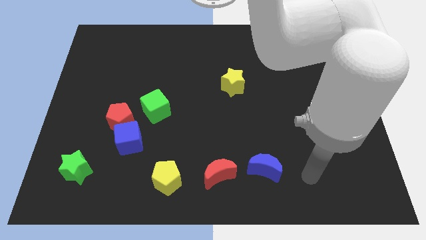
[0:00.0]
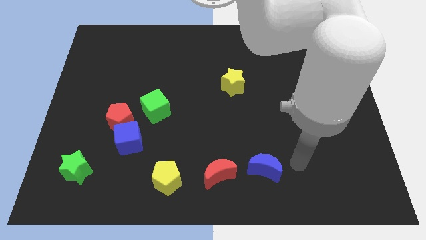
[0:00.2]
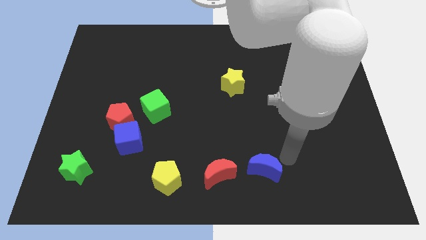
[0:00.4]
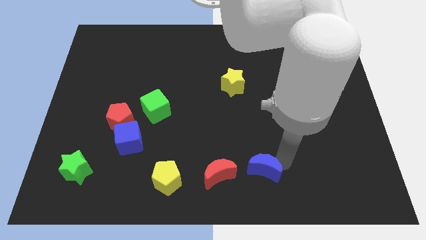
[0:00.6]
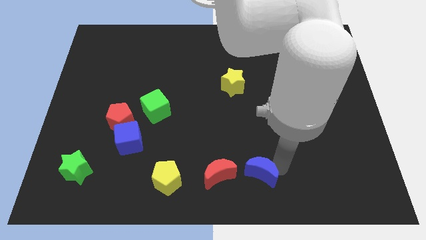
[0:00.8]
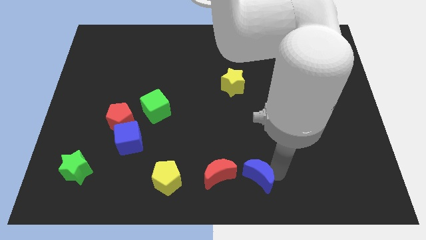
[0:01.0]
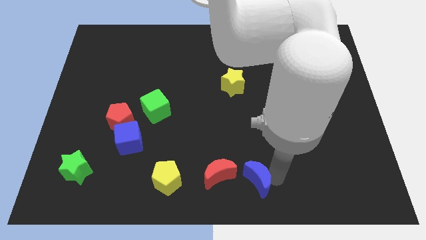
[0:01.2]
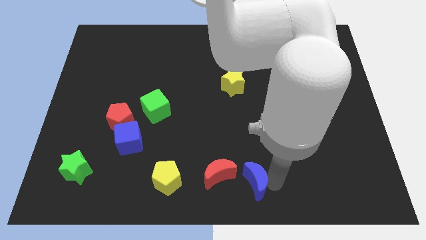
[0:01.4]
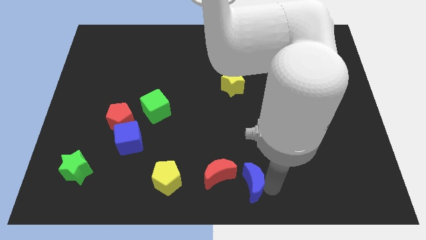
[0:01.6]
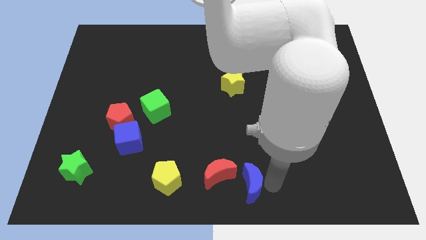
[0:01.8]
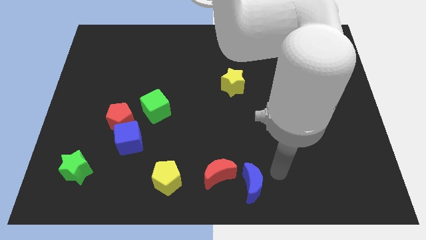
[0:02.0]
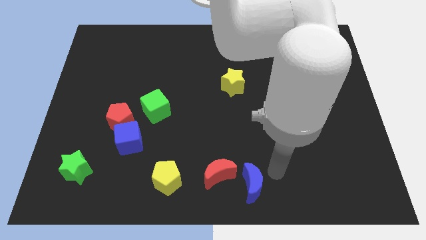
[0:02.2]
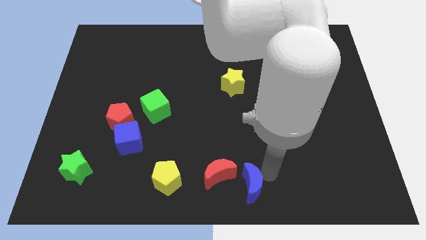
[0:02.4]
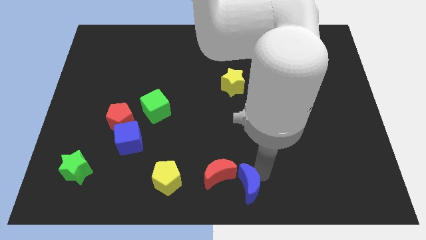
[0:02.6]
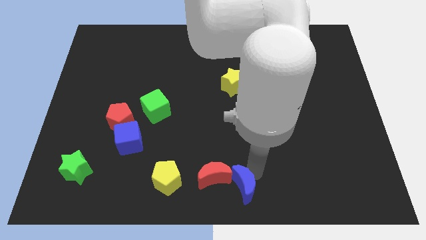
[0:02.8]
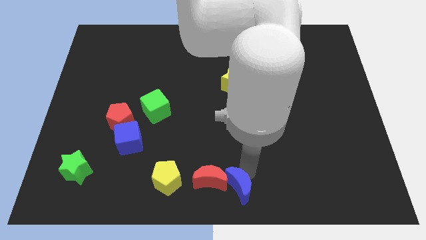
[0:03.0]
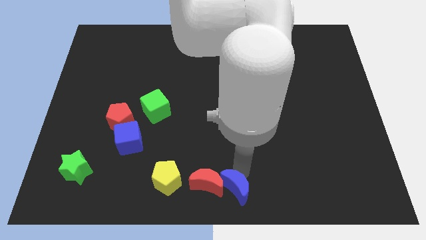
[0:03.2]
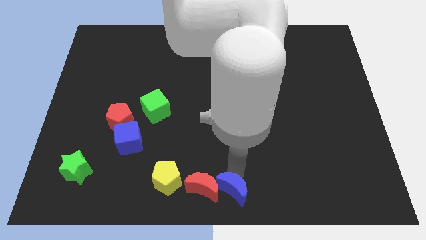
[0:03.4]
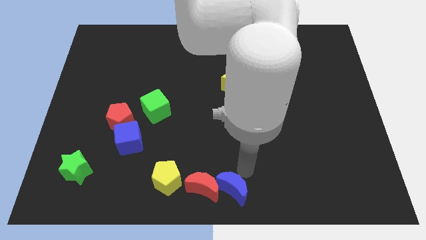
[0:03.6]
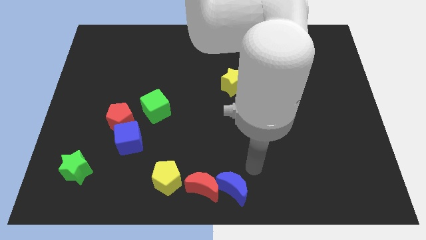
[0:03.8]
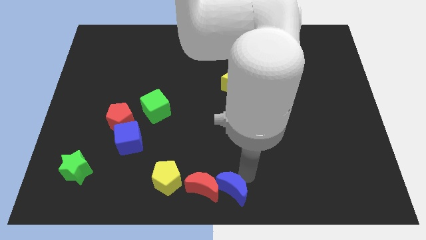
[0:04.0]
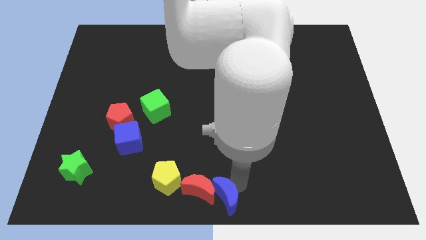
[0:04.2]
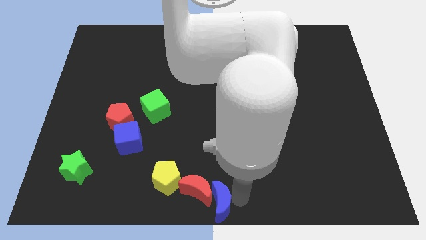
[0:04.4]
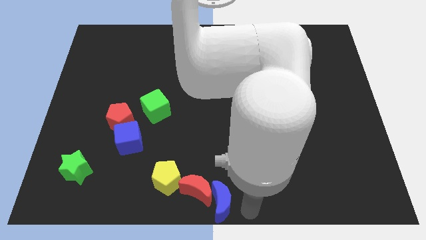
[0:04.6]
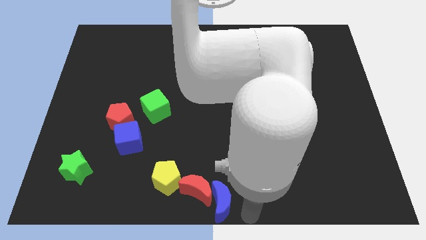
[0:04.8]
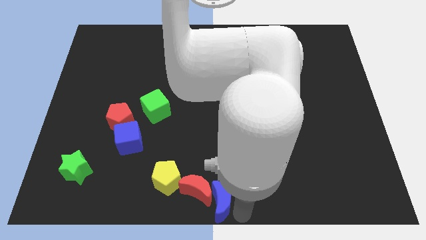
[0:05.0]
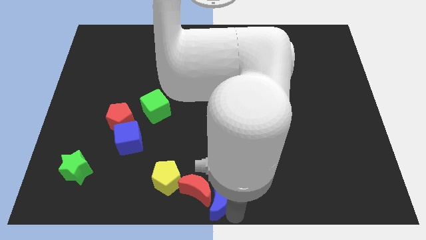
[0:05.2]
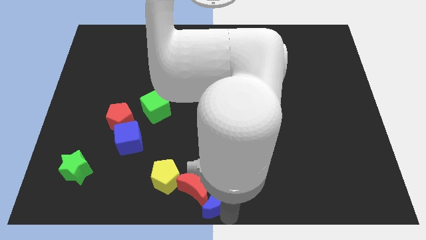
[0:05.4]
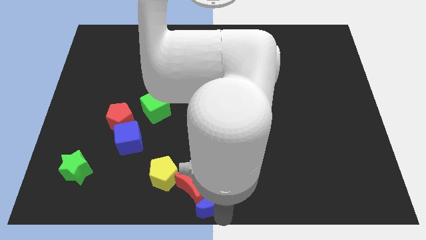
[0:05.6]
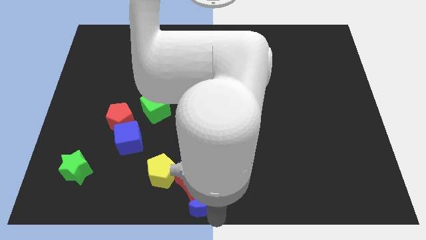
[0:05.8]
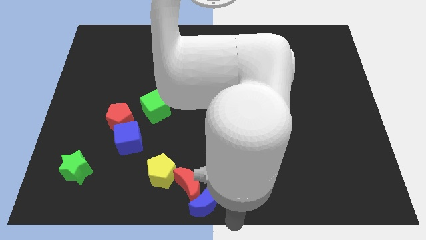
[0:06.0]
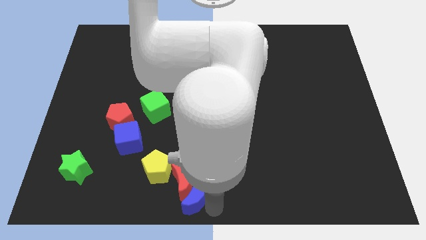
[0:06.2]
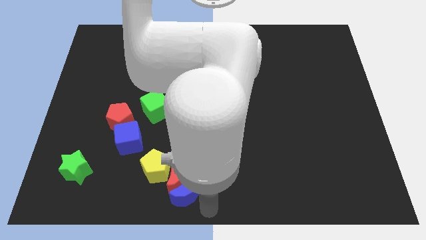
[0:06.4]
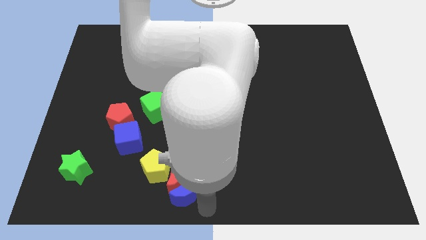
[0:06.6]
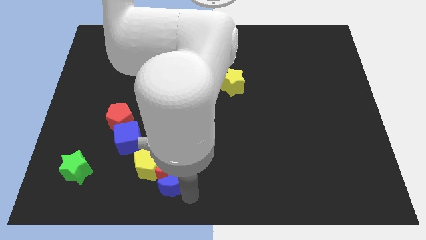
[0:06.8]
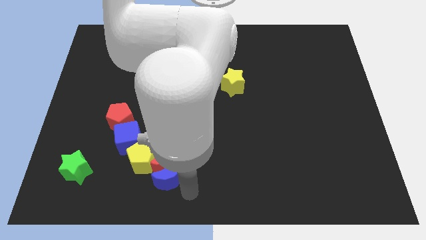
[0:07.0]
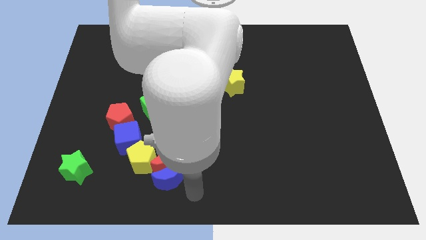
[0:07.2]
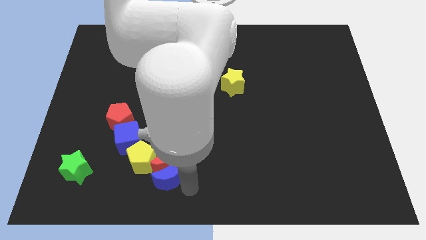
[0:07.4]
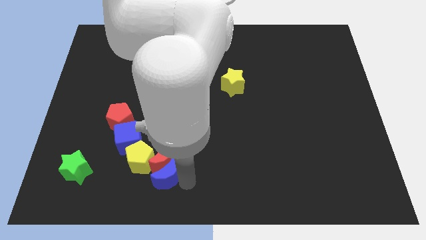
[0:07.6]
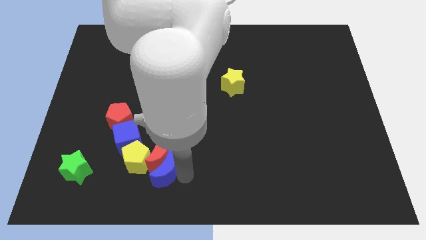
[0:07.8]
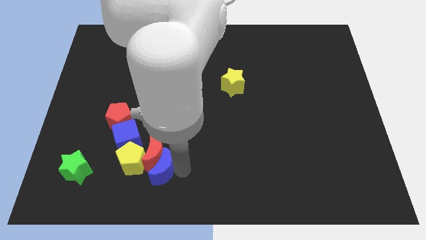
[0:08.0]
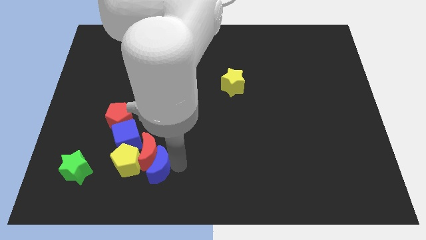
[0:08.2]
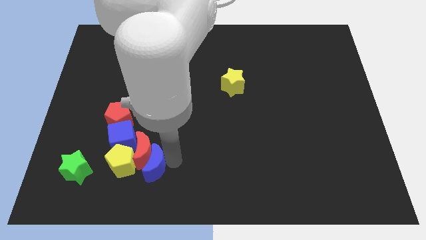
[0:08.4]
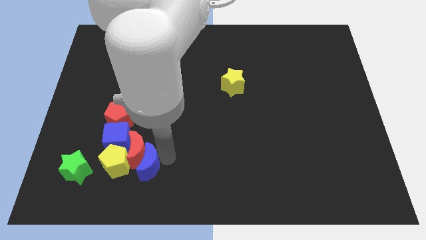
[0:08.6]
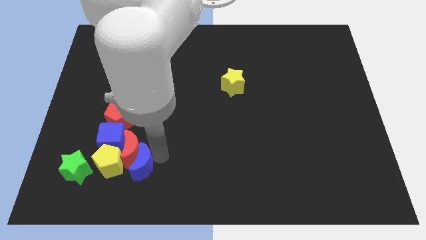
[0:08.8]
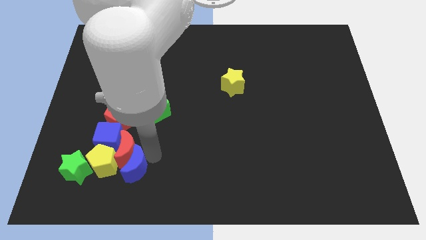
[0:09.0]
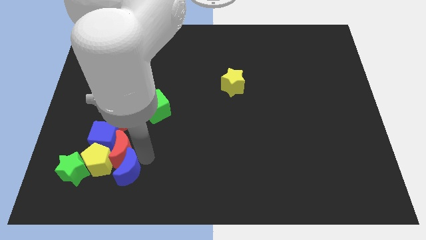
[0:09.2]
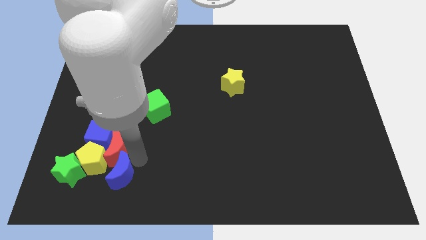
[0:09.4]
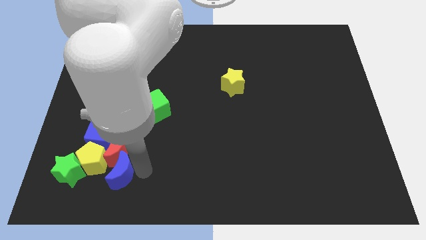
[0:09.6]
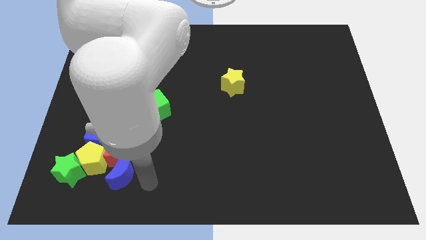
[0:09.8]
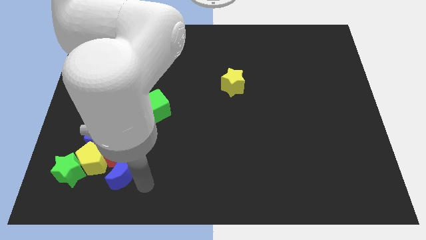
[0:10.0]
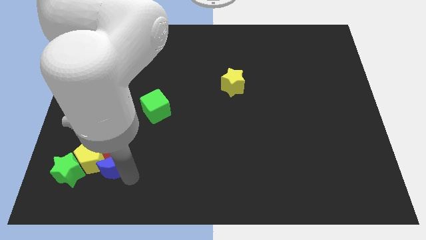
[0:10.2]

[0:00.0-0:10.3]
move the blue moon close to the yellow pentagon

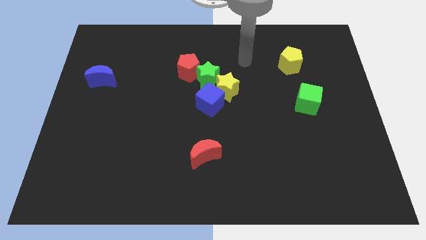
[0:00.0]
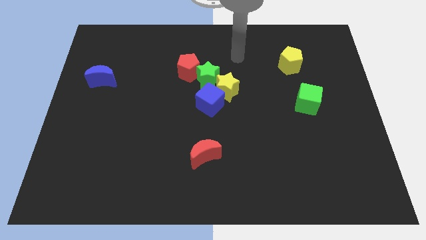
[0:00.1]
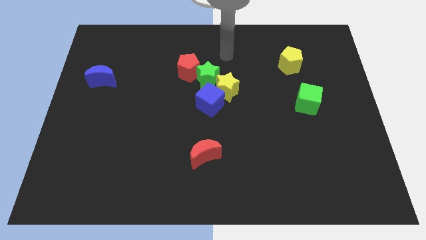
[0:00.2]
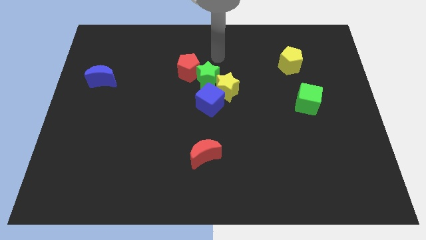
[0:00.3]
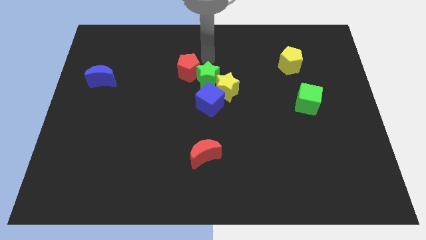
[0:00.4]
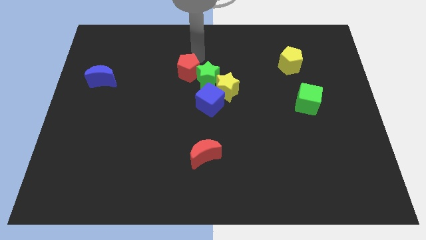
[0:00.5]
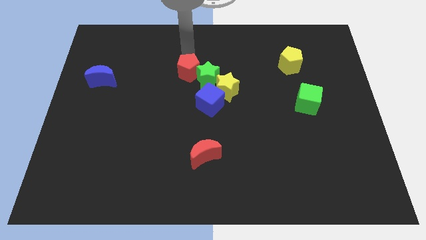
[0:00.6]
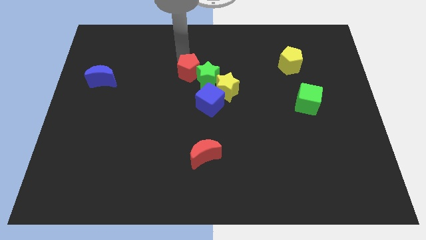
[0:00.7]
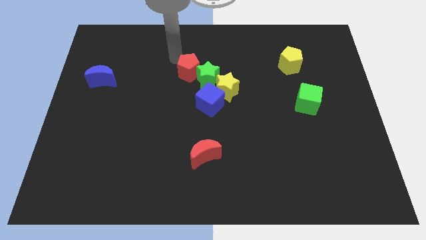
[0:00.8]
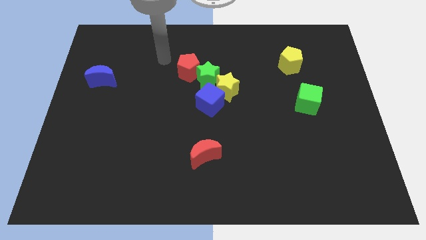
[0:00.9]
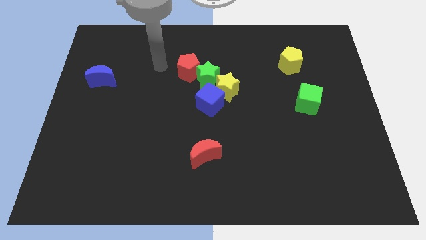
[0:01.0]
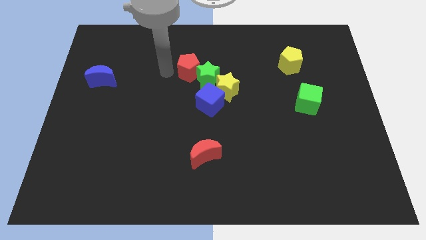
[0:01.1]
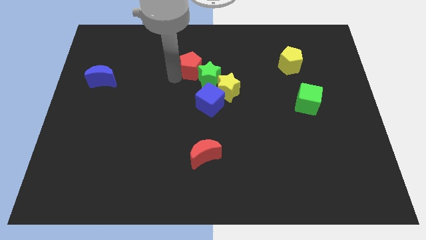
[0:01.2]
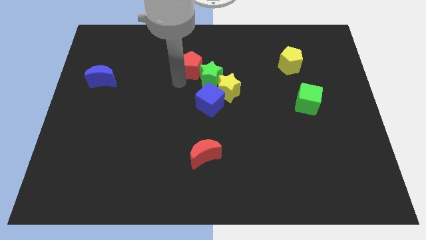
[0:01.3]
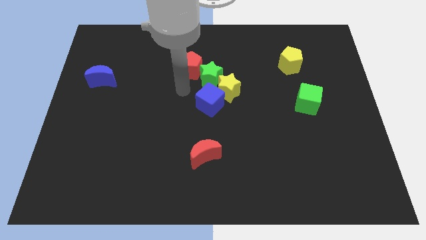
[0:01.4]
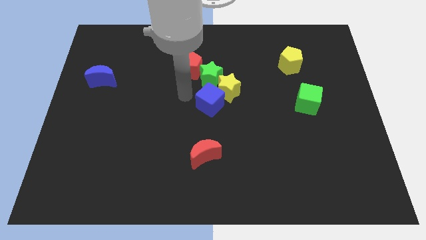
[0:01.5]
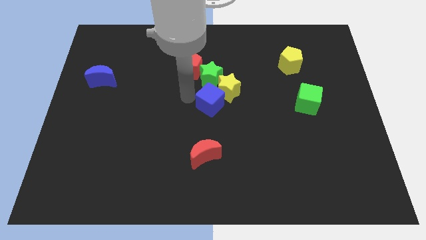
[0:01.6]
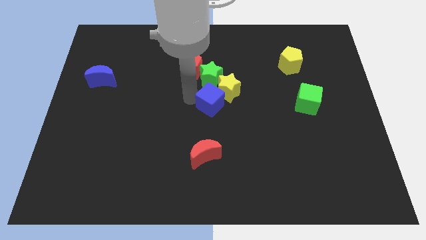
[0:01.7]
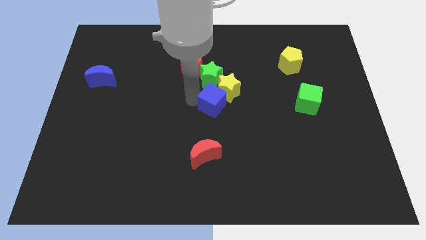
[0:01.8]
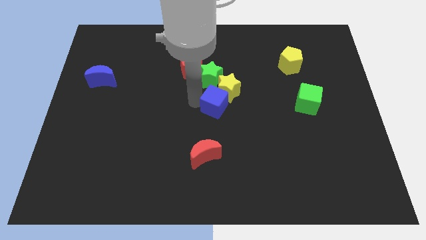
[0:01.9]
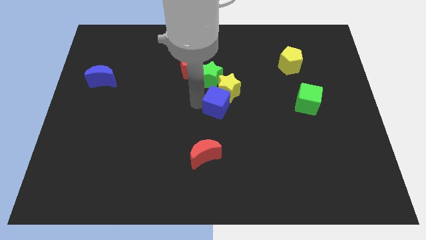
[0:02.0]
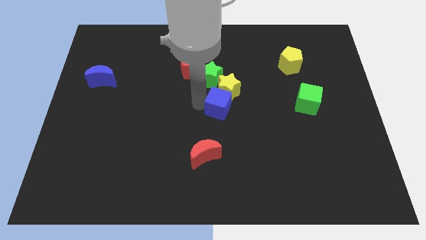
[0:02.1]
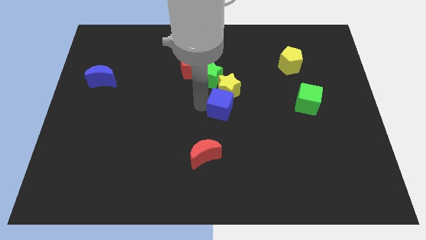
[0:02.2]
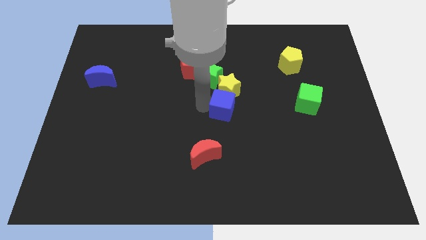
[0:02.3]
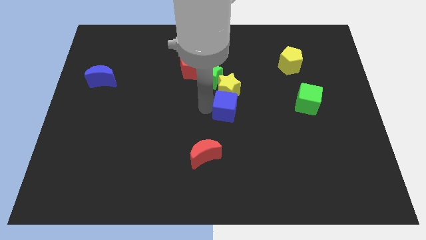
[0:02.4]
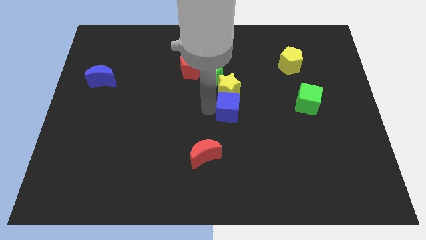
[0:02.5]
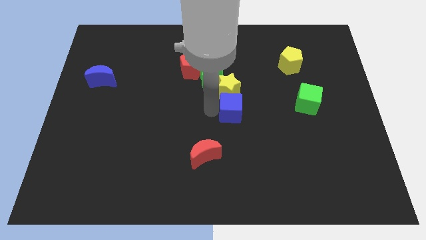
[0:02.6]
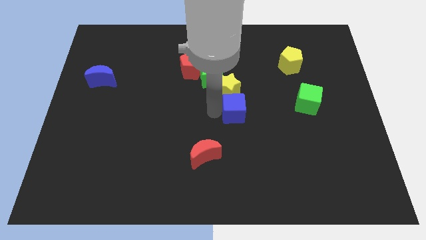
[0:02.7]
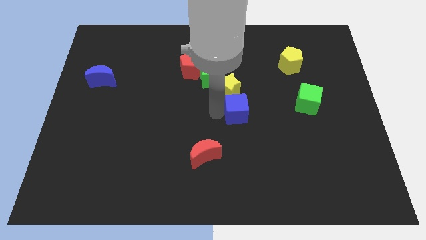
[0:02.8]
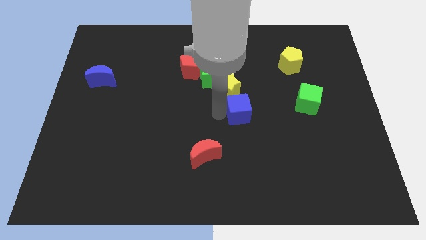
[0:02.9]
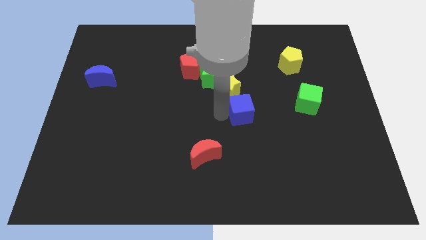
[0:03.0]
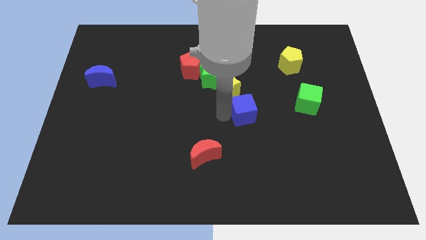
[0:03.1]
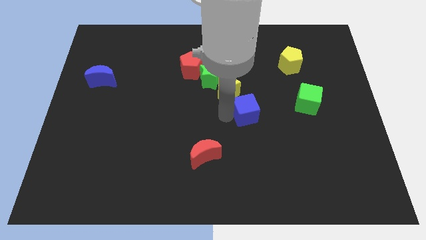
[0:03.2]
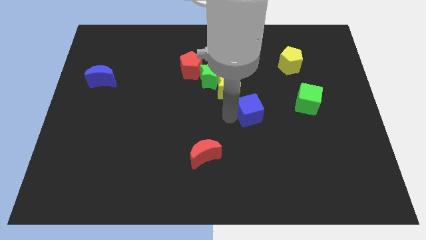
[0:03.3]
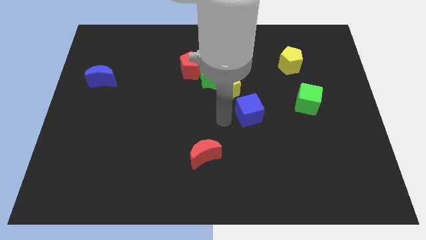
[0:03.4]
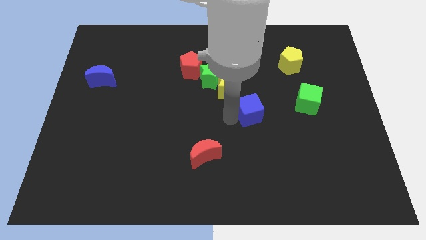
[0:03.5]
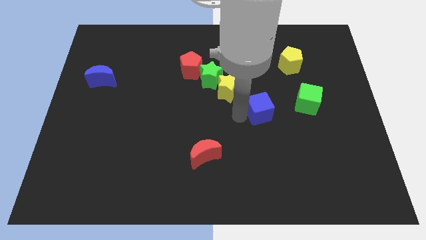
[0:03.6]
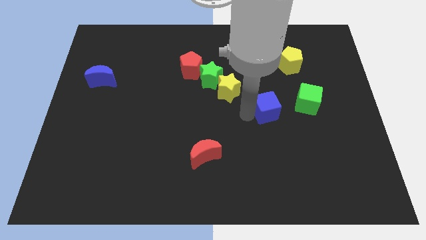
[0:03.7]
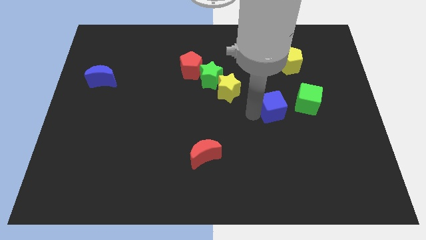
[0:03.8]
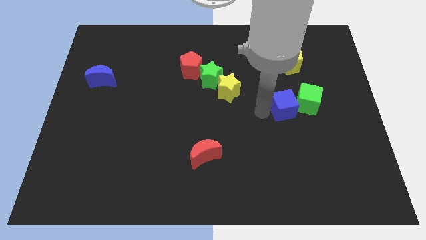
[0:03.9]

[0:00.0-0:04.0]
slide the blue cube next to the green cube
